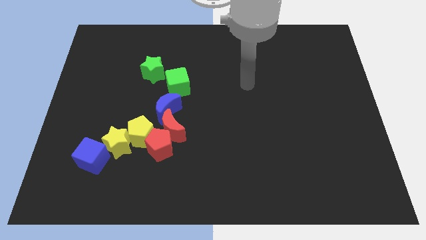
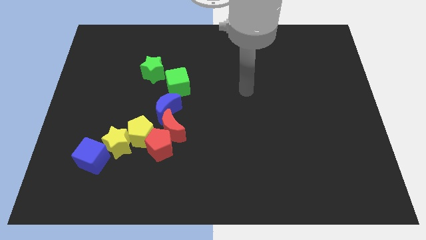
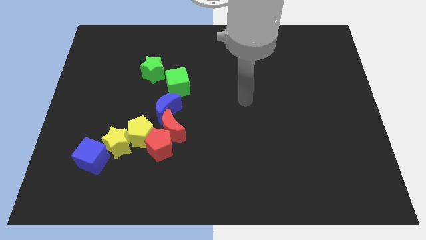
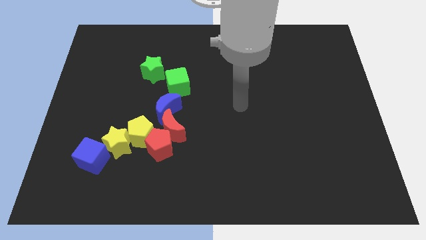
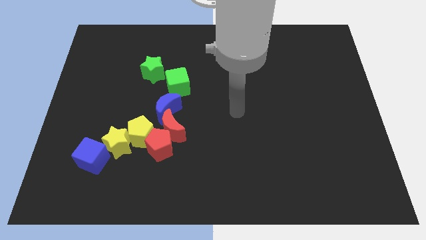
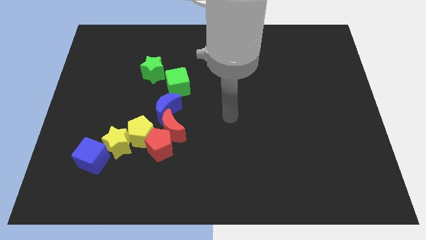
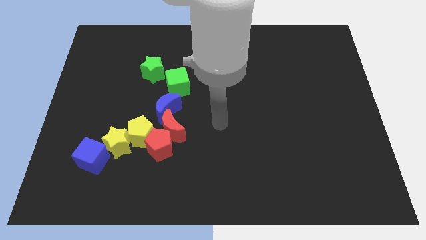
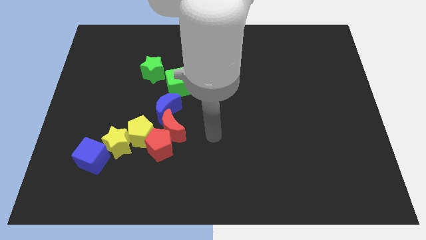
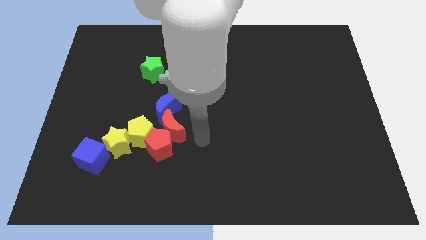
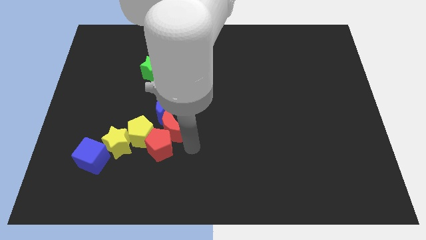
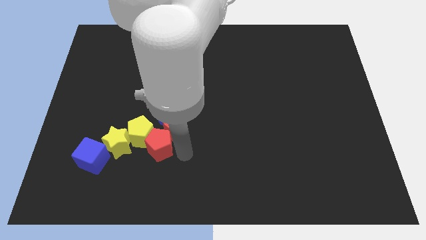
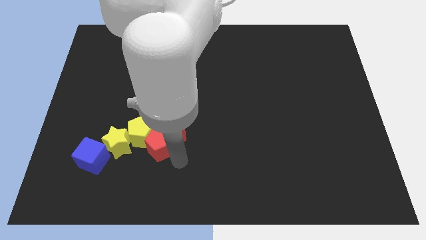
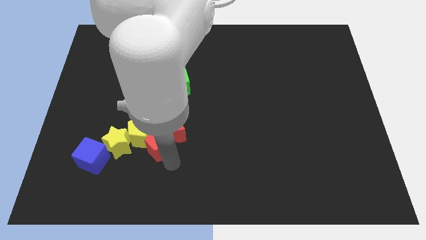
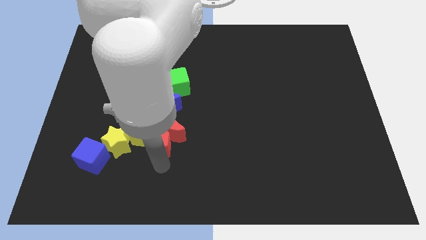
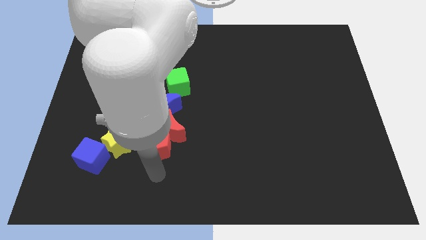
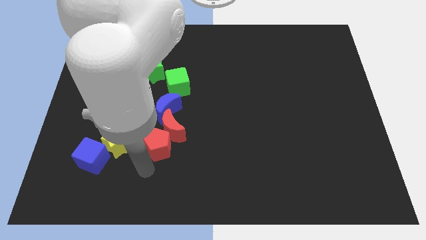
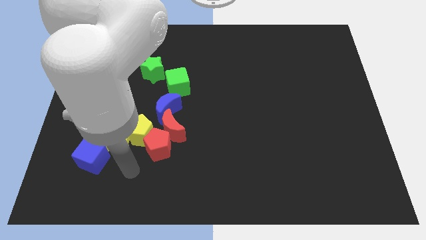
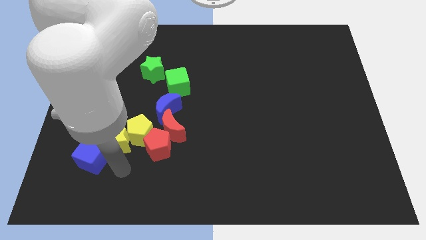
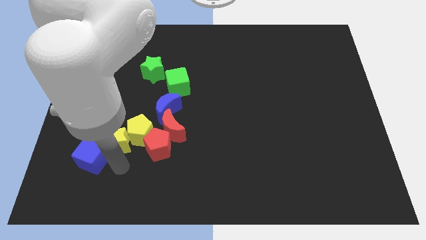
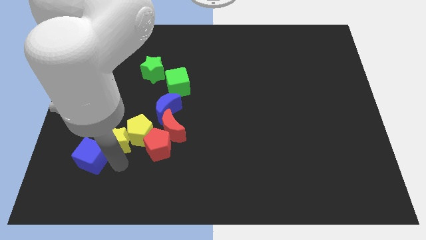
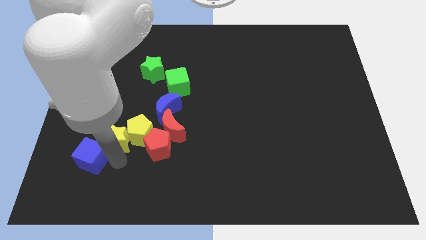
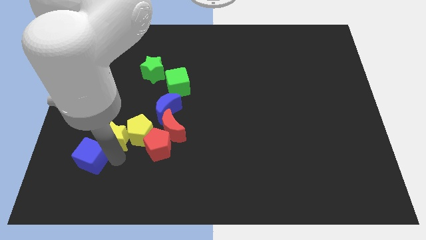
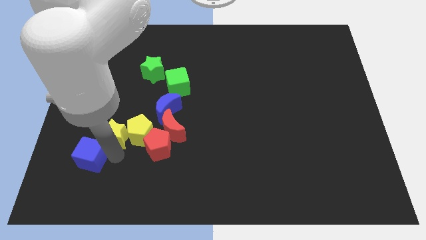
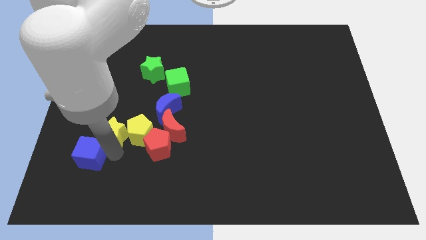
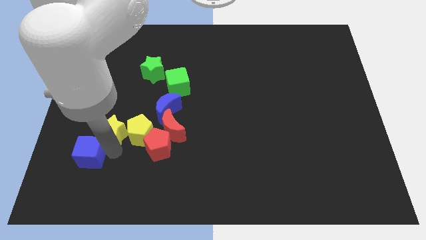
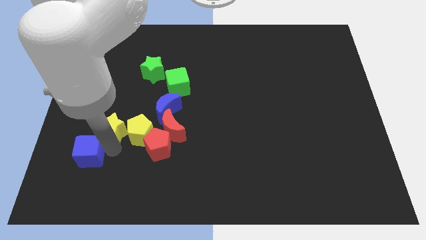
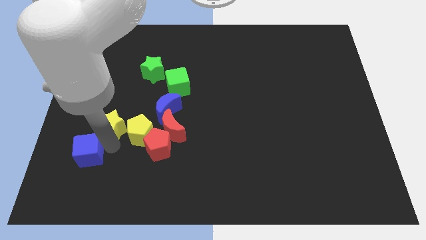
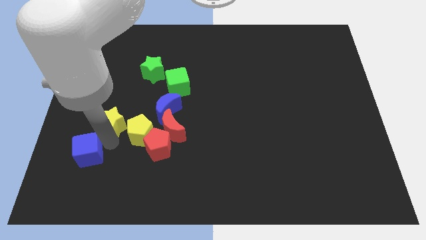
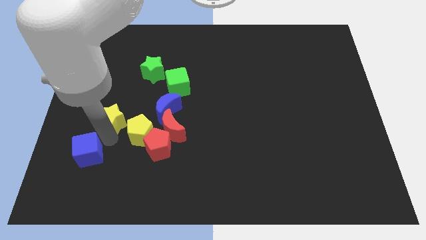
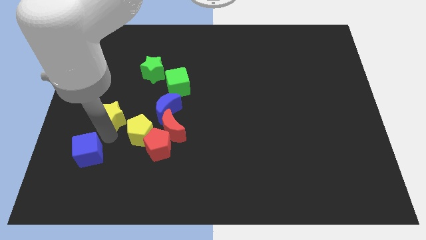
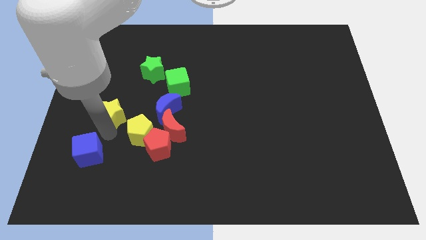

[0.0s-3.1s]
move the yellow star upwards a little

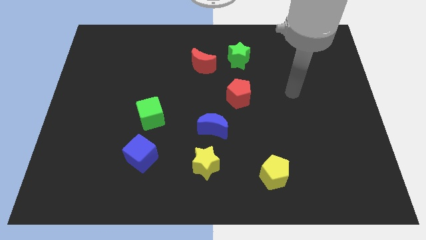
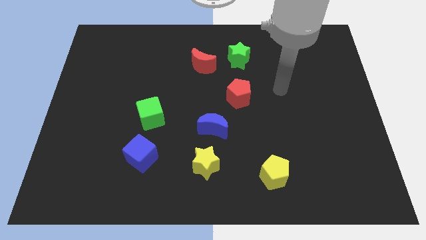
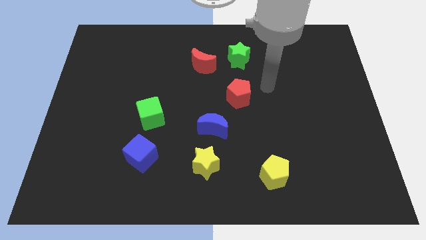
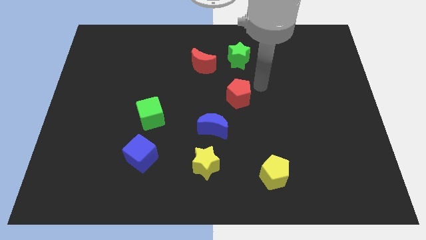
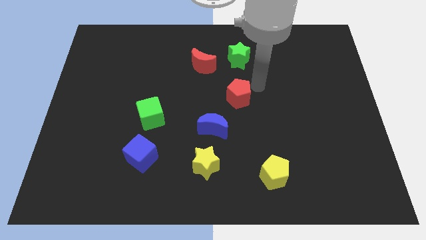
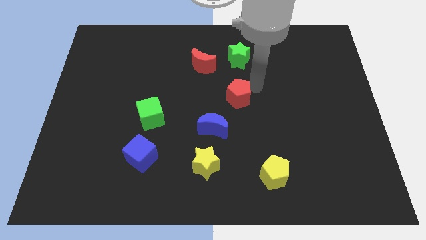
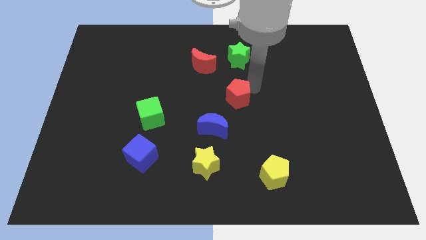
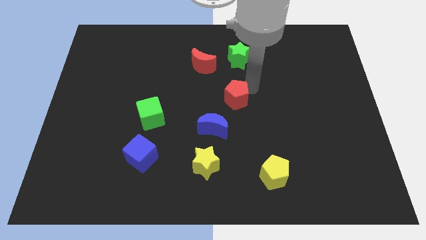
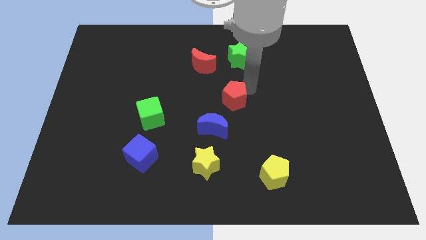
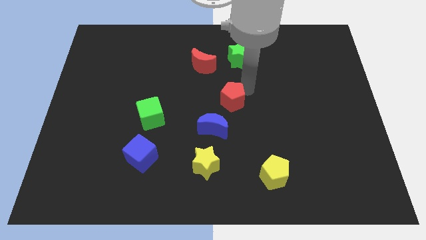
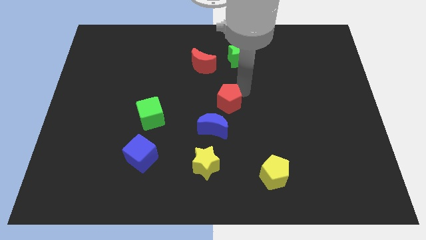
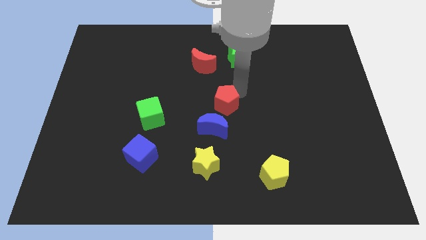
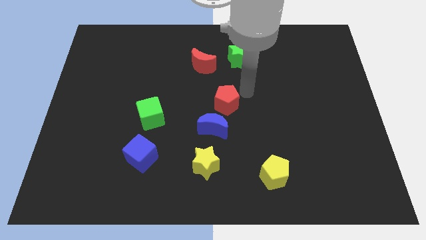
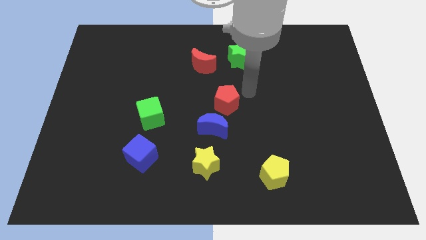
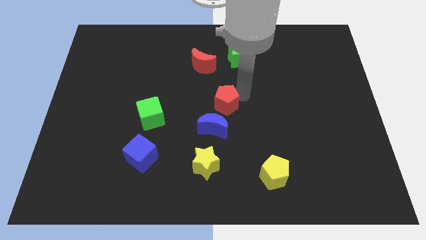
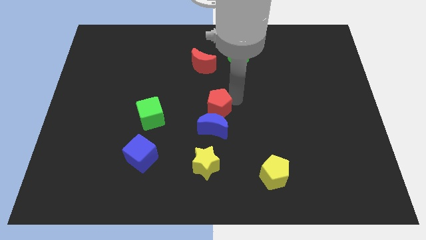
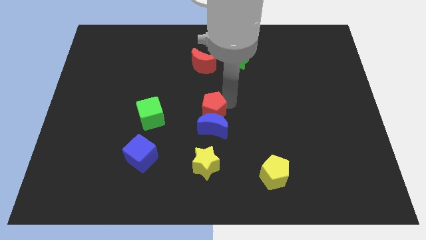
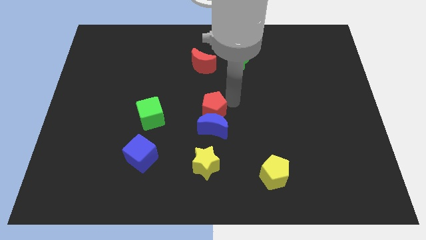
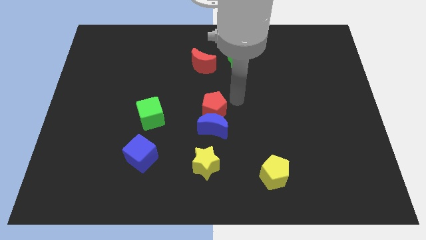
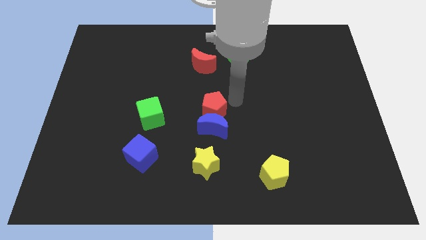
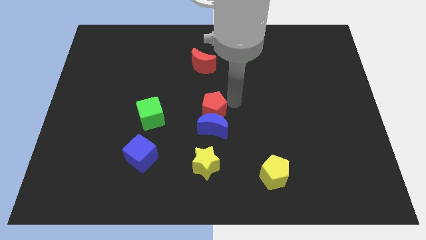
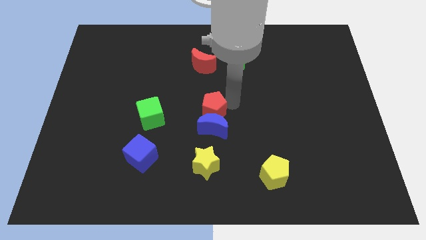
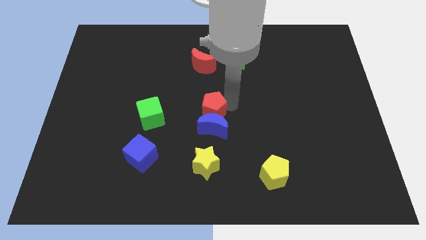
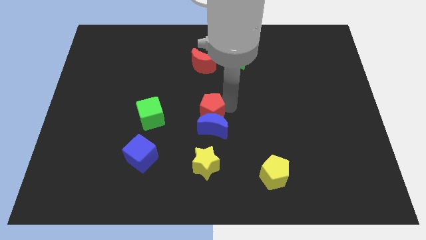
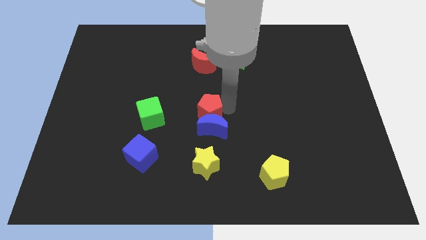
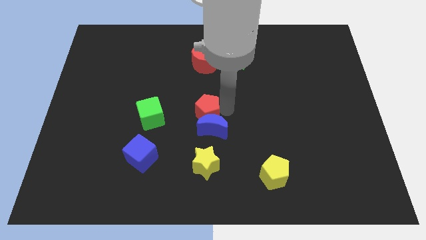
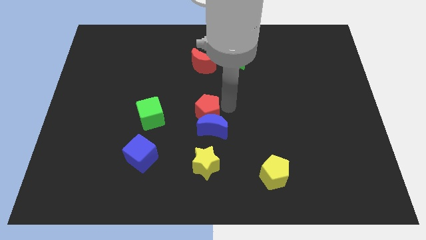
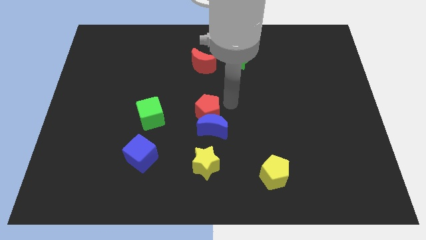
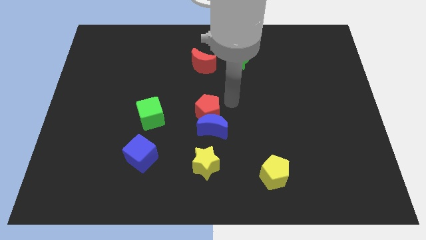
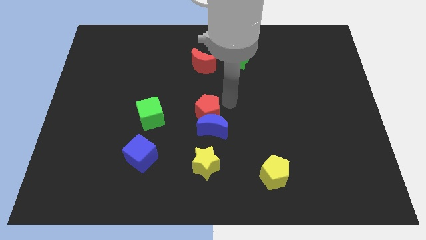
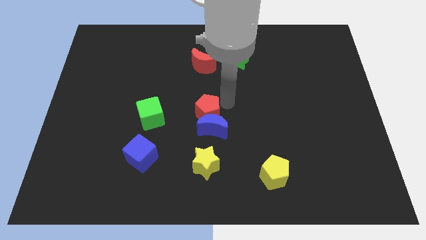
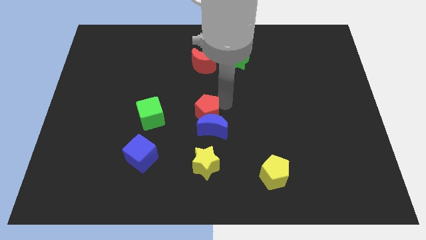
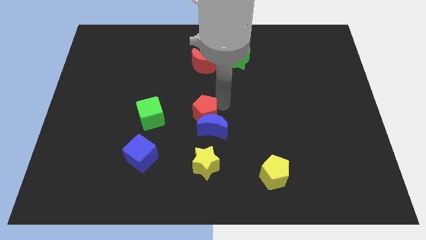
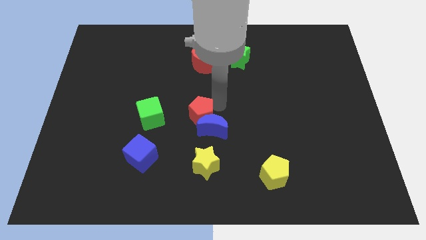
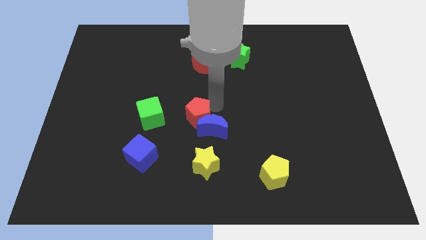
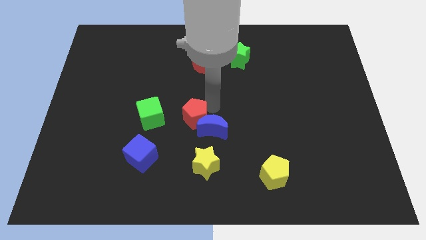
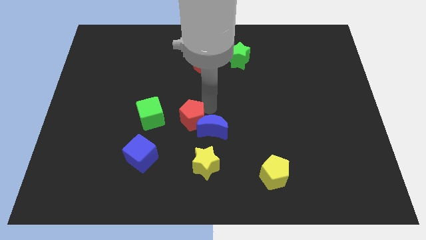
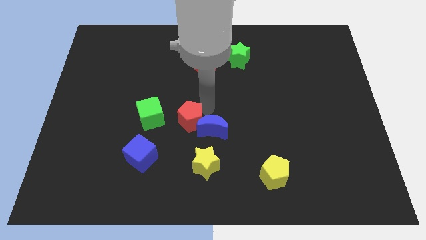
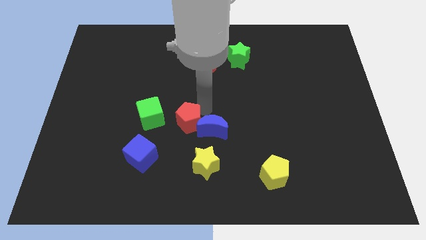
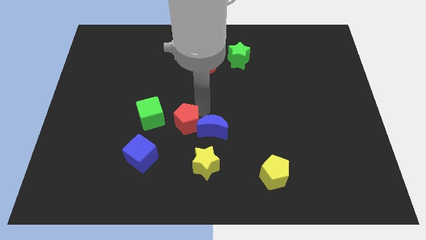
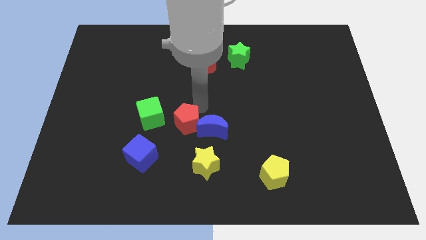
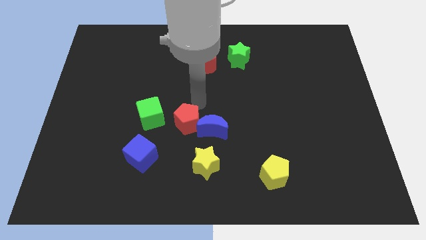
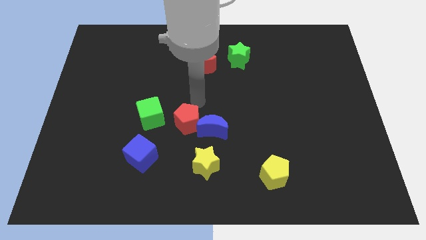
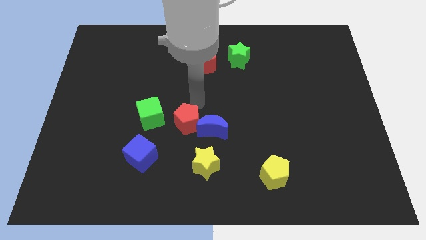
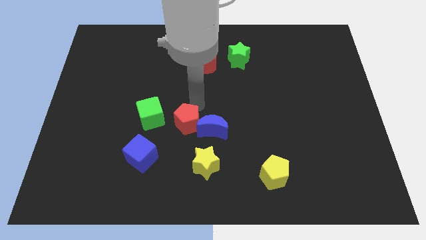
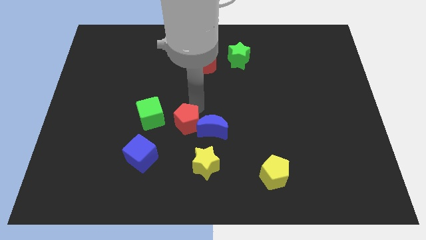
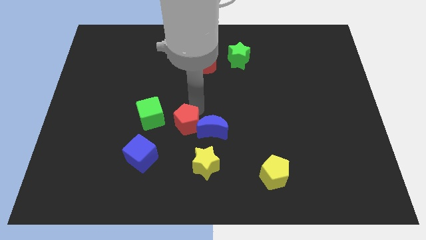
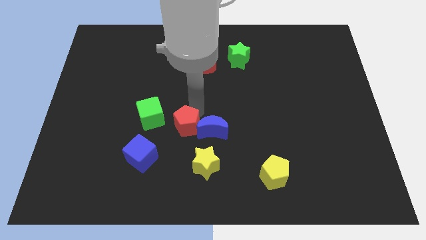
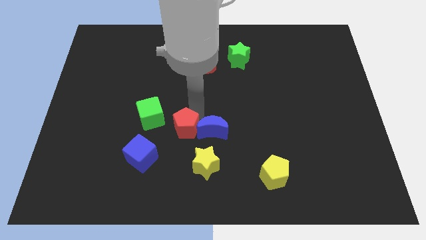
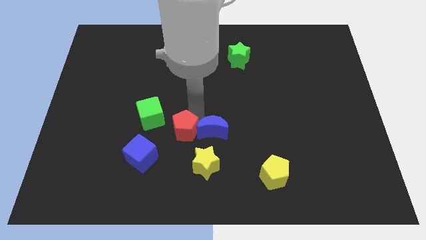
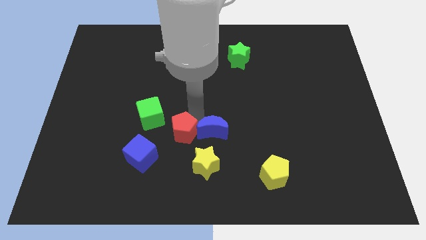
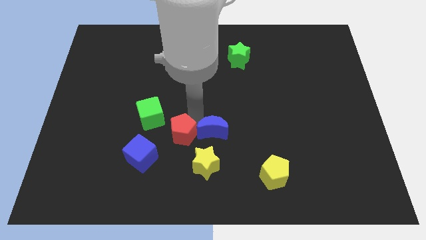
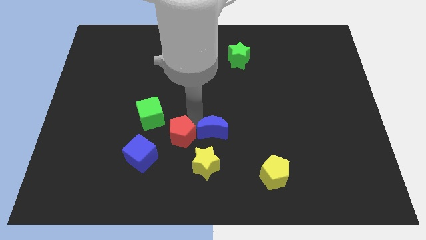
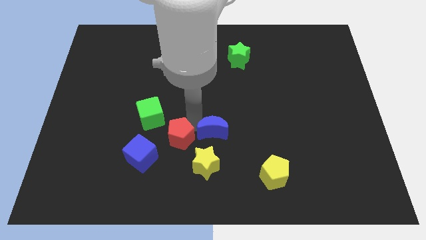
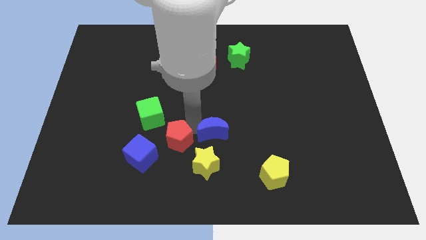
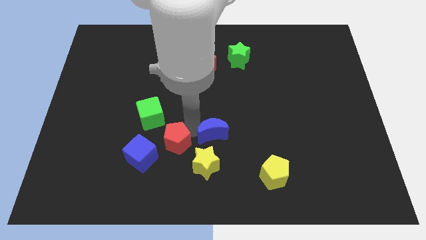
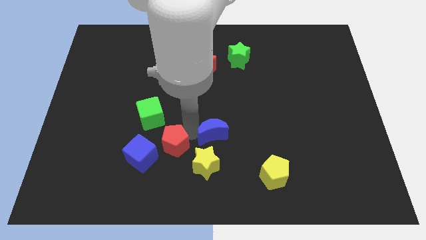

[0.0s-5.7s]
push the red pentagon downwards and to the left
